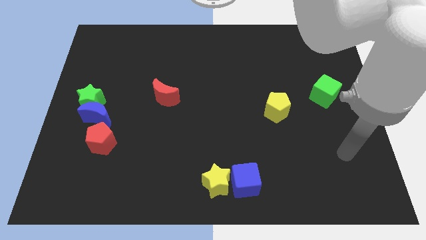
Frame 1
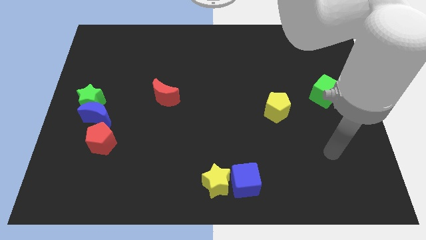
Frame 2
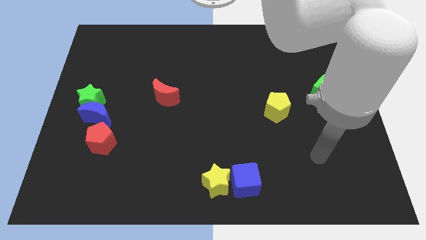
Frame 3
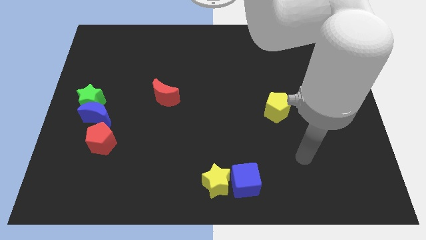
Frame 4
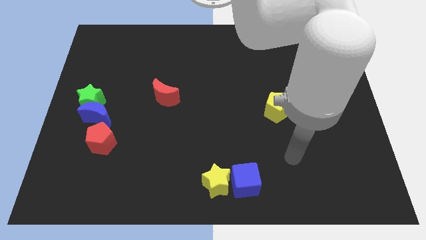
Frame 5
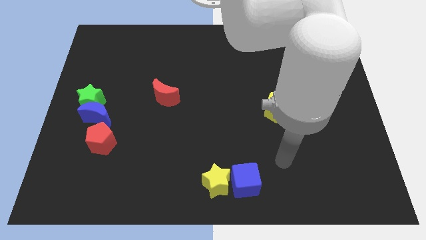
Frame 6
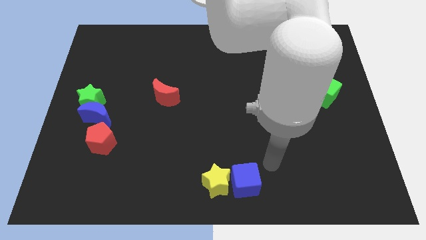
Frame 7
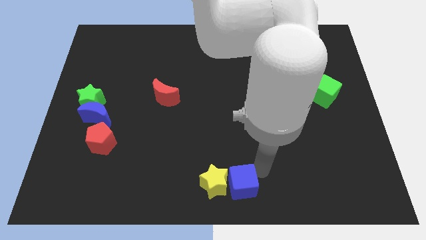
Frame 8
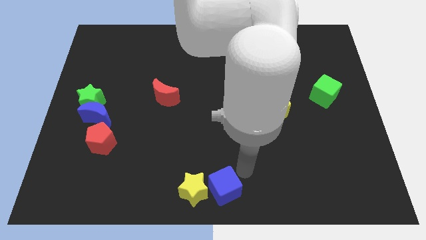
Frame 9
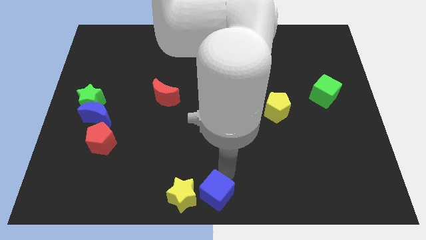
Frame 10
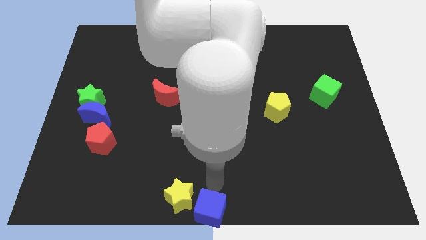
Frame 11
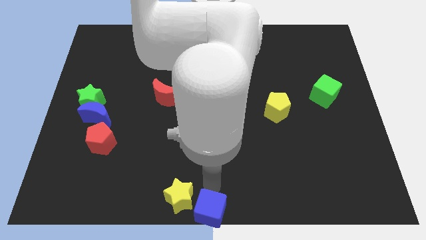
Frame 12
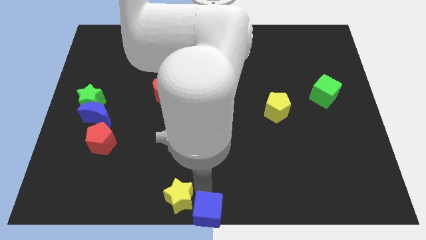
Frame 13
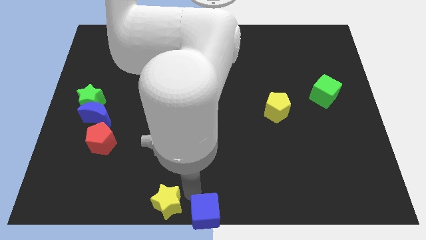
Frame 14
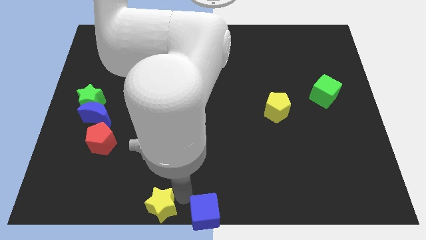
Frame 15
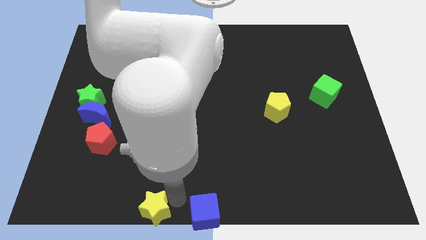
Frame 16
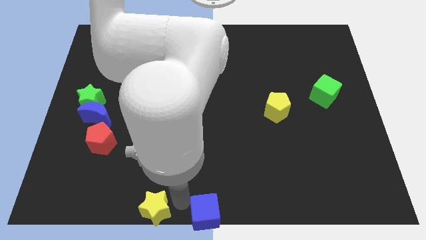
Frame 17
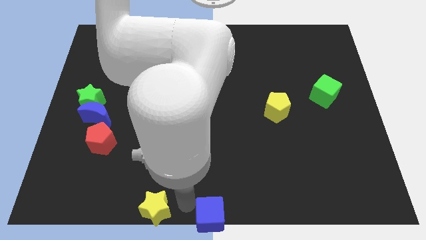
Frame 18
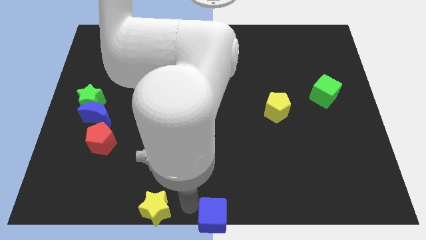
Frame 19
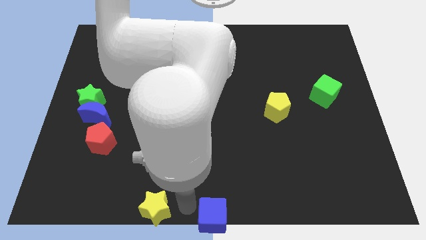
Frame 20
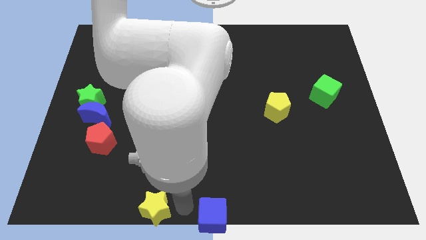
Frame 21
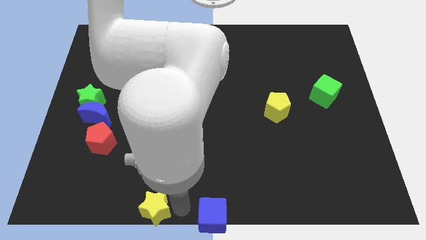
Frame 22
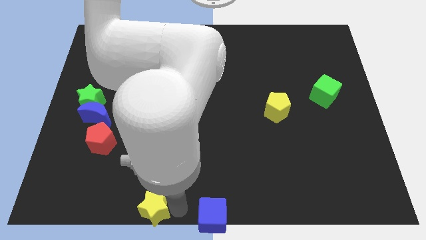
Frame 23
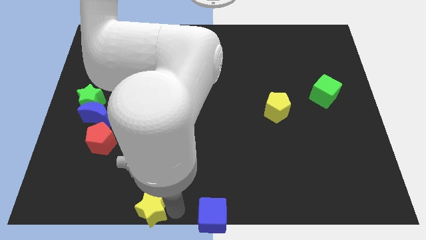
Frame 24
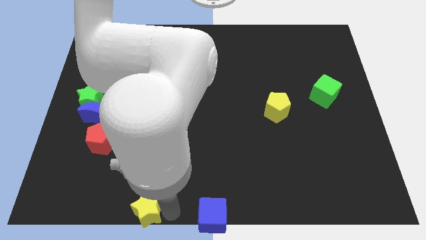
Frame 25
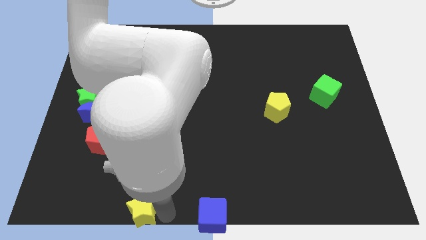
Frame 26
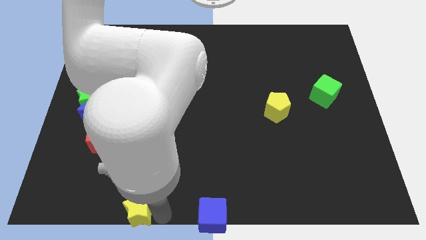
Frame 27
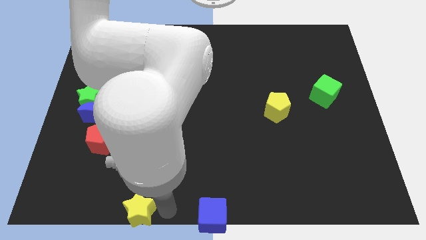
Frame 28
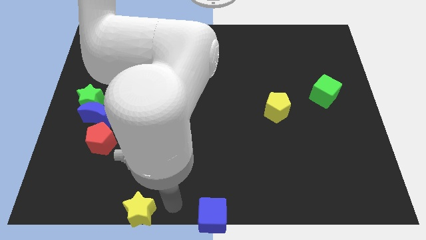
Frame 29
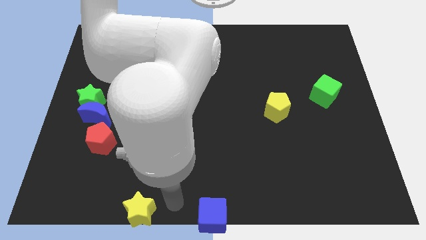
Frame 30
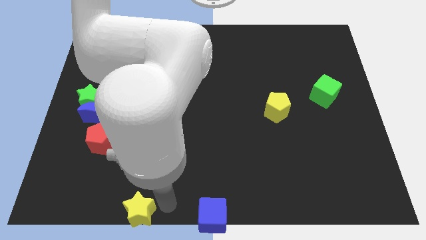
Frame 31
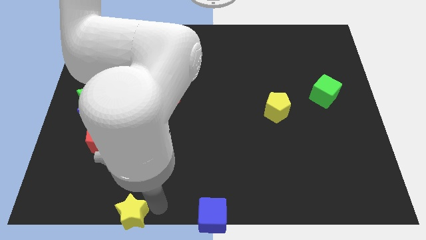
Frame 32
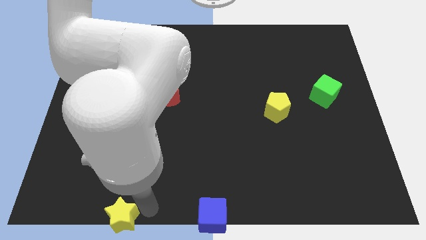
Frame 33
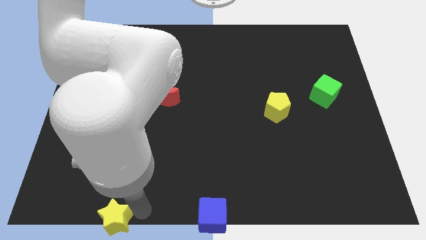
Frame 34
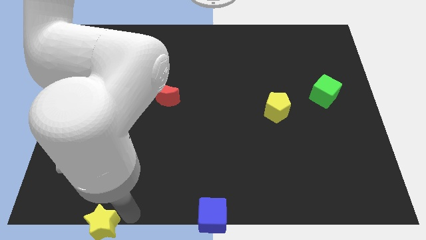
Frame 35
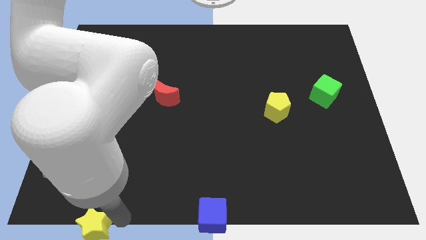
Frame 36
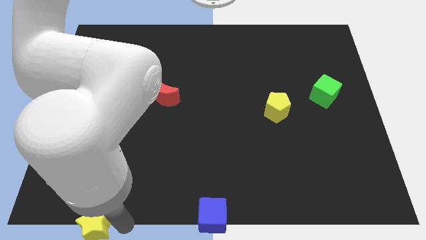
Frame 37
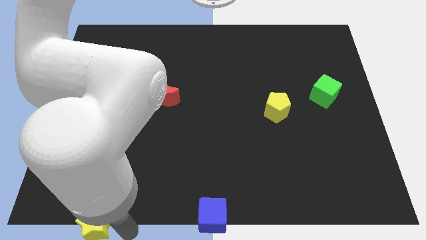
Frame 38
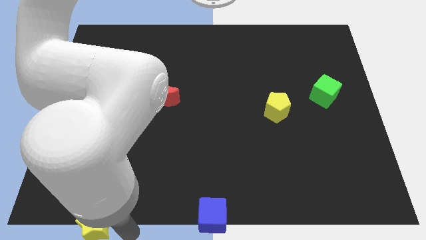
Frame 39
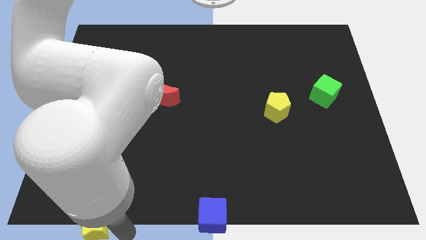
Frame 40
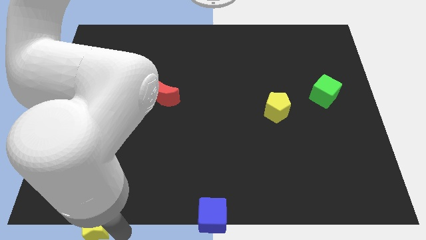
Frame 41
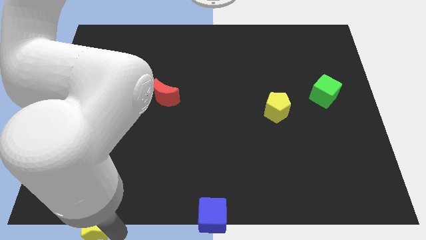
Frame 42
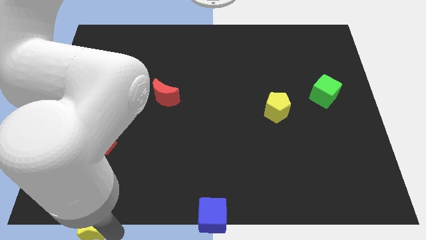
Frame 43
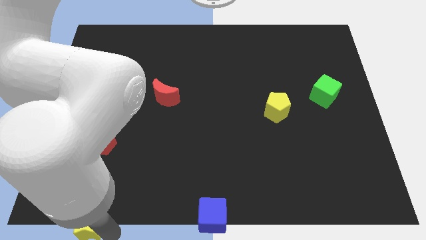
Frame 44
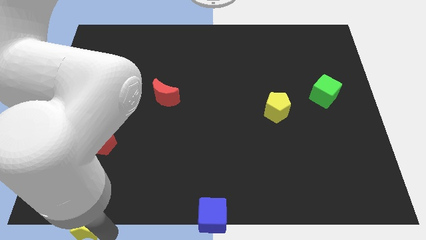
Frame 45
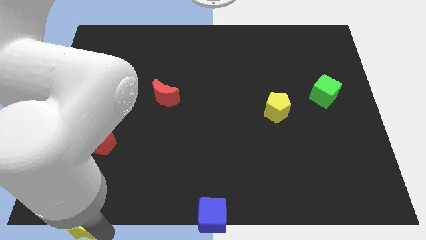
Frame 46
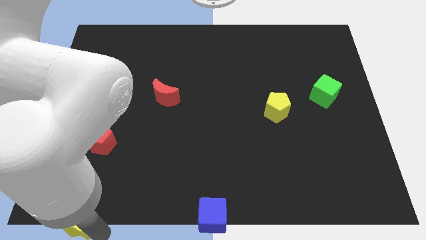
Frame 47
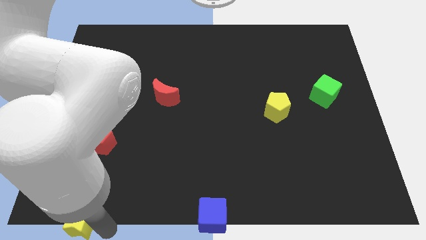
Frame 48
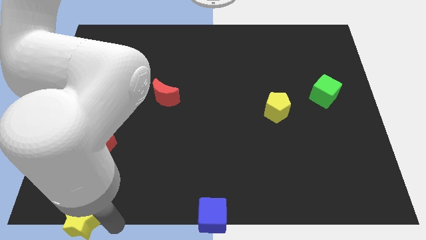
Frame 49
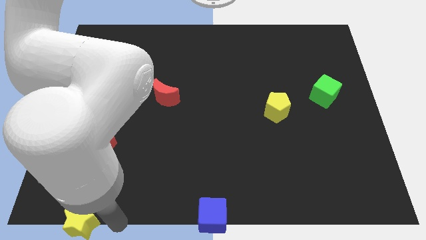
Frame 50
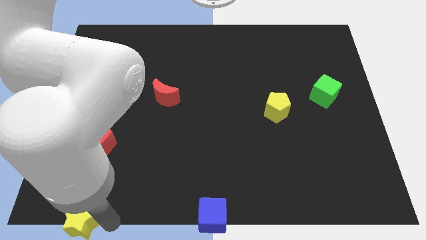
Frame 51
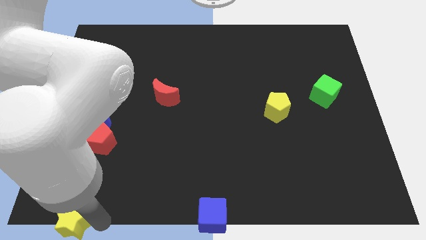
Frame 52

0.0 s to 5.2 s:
move the yellow star to the bottom left

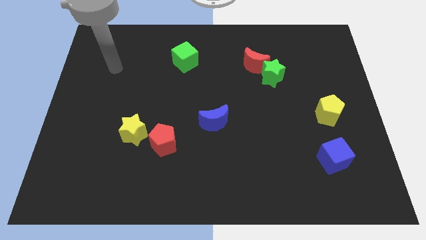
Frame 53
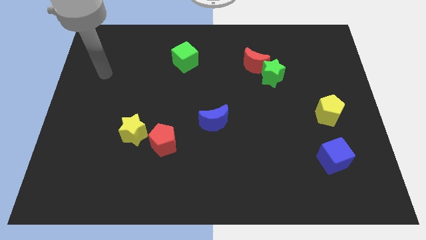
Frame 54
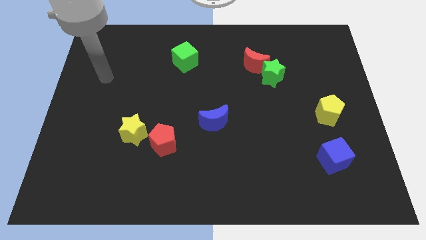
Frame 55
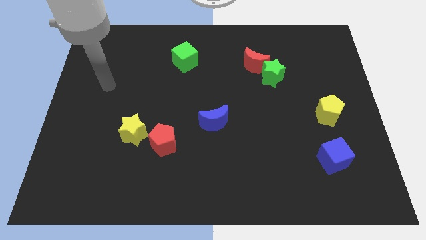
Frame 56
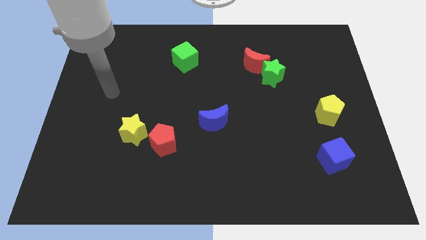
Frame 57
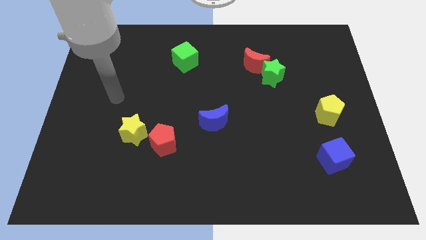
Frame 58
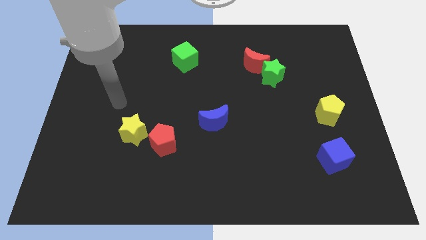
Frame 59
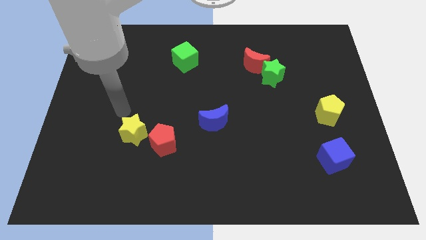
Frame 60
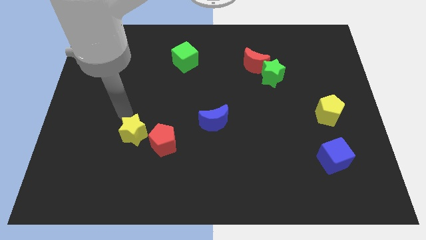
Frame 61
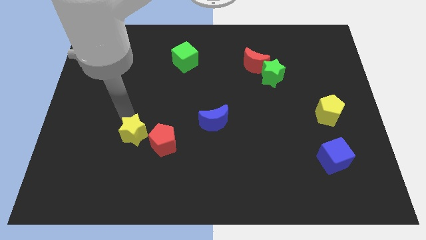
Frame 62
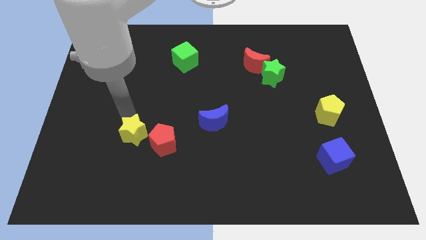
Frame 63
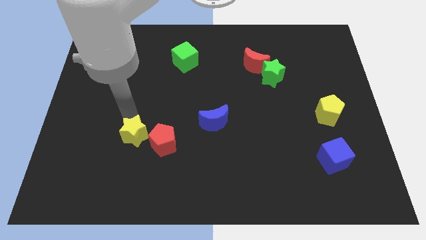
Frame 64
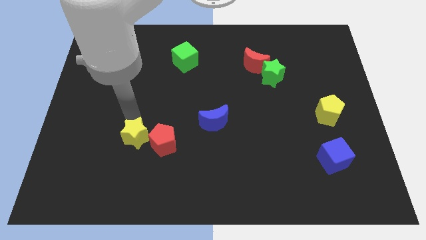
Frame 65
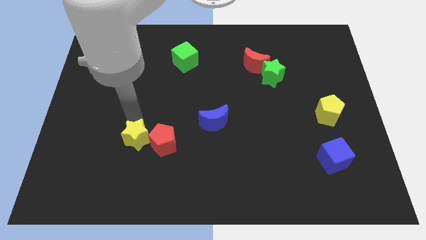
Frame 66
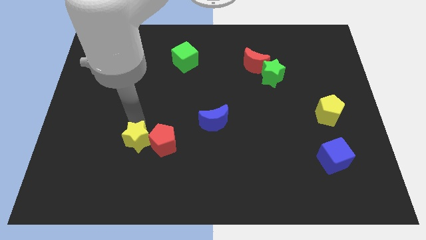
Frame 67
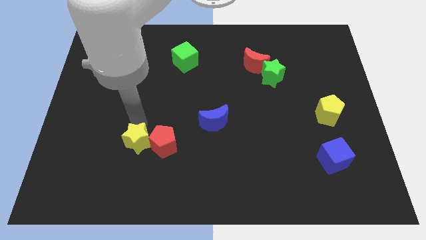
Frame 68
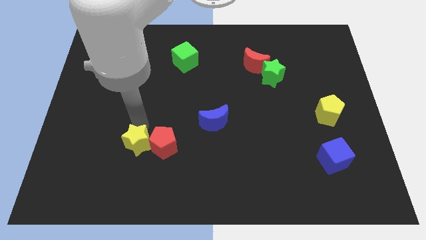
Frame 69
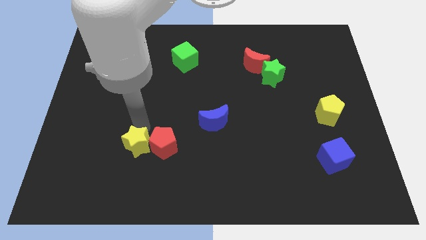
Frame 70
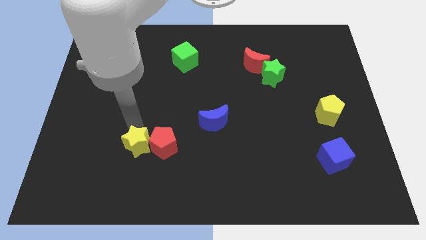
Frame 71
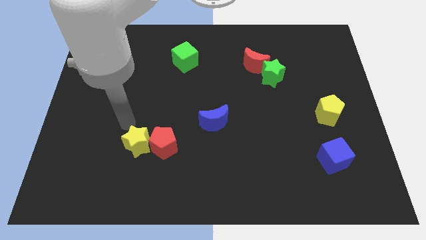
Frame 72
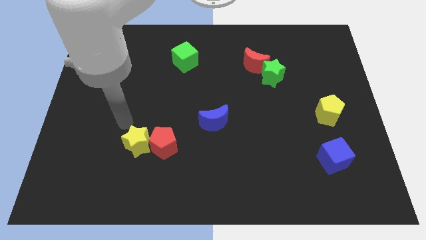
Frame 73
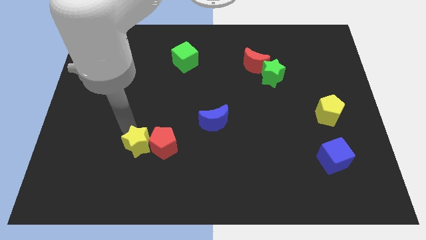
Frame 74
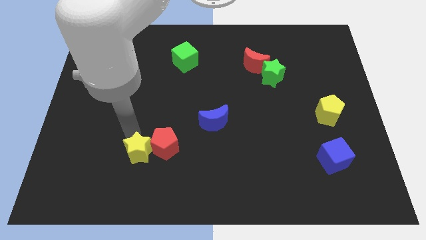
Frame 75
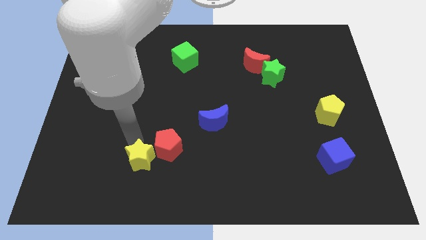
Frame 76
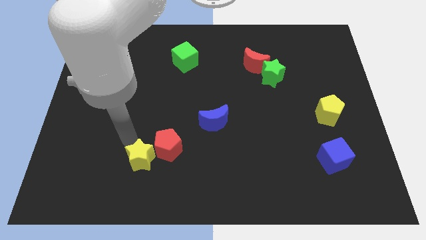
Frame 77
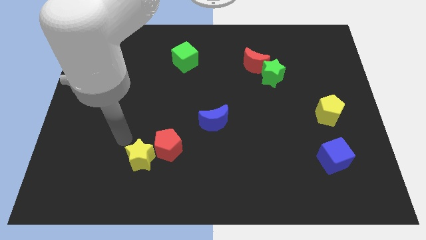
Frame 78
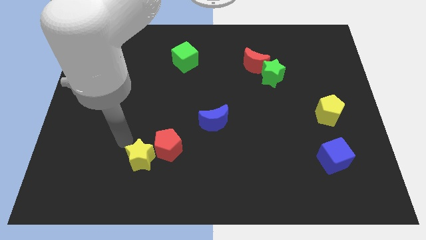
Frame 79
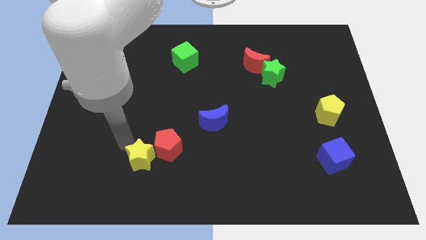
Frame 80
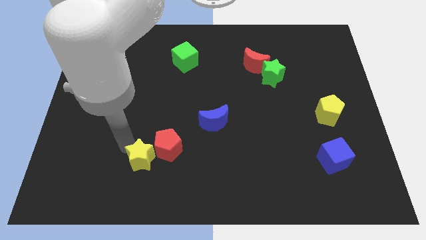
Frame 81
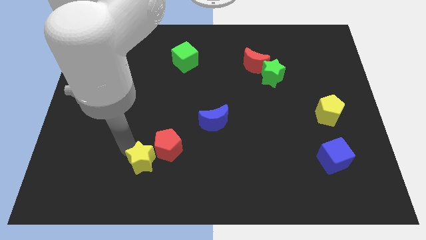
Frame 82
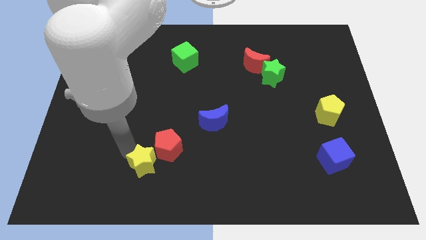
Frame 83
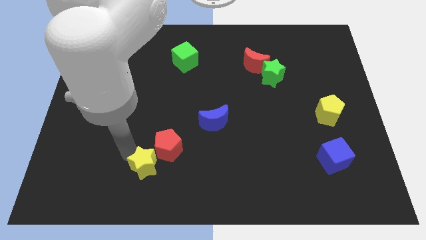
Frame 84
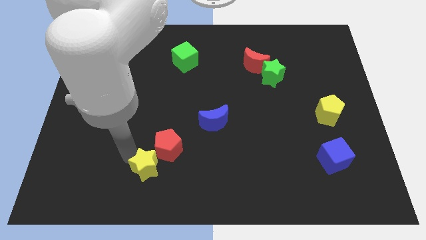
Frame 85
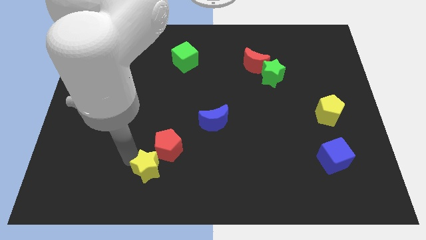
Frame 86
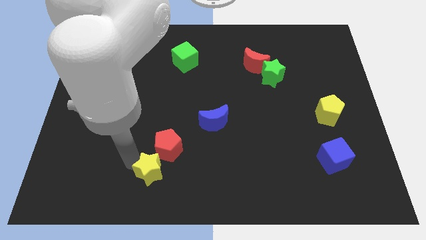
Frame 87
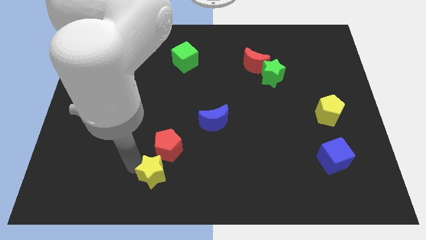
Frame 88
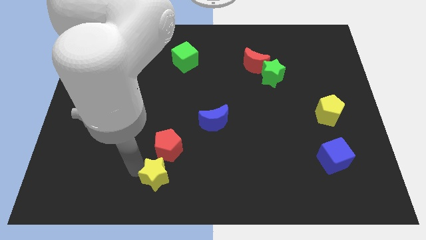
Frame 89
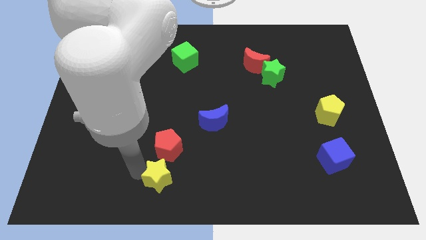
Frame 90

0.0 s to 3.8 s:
put the yellow star to the bottom
